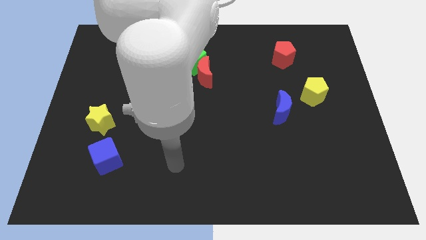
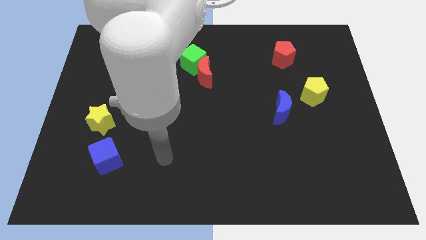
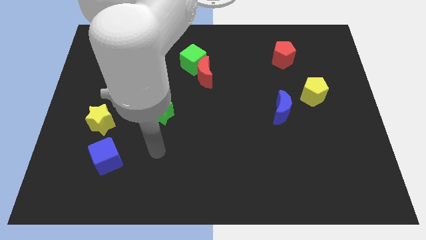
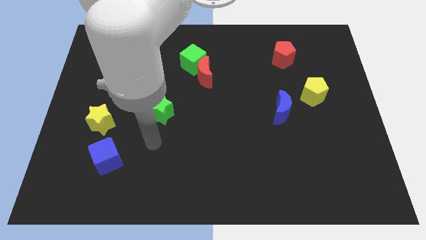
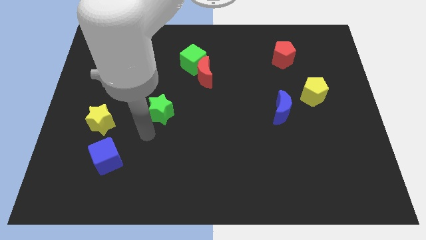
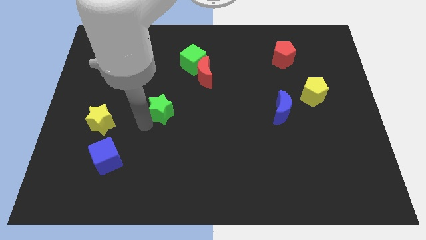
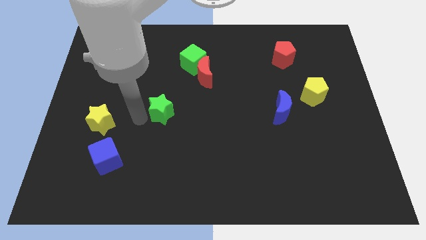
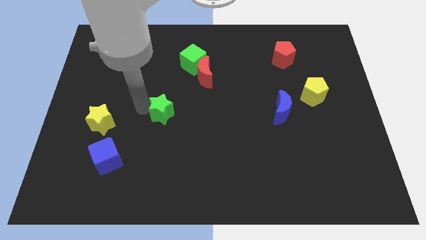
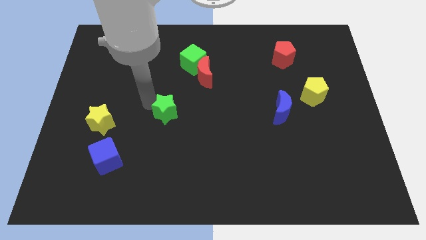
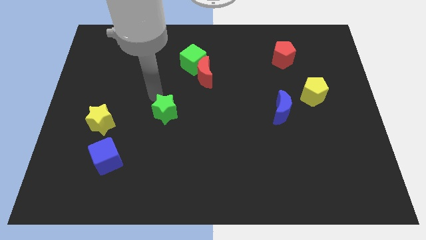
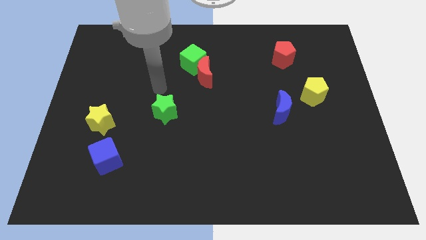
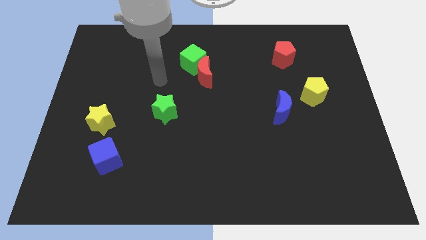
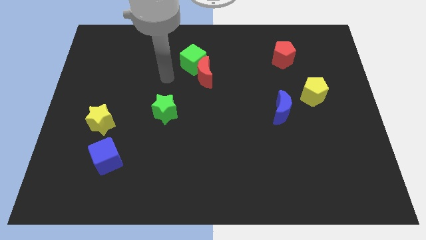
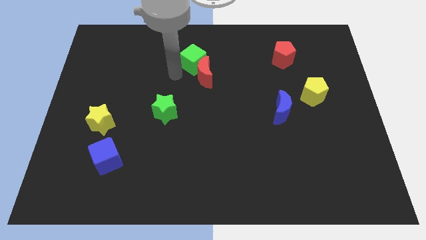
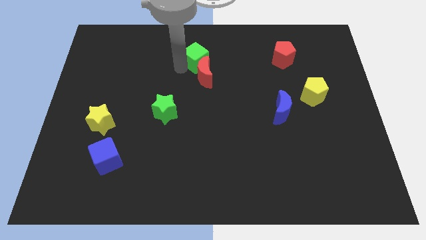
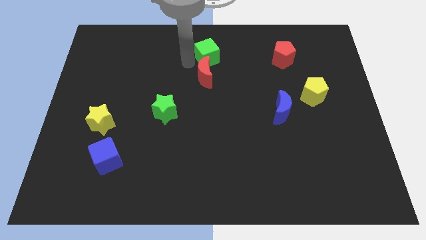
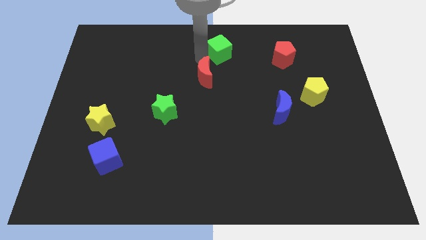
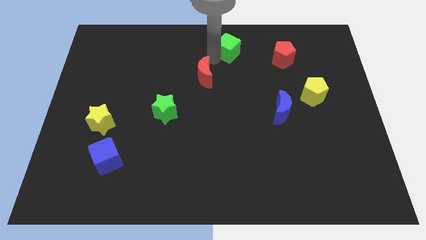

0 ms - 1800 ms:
pull the red moon apart from the green cube

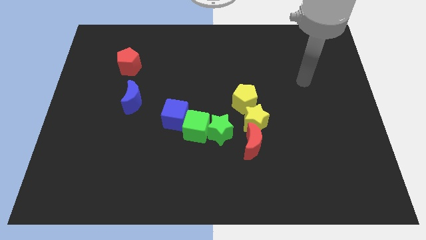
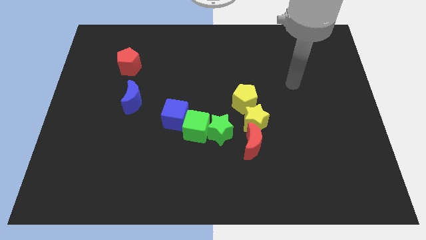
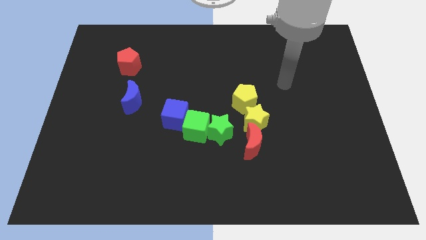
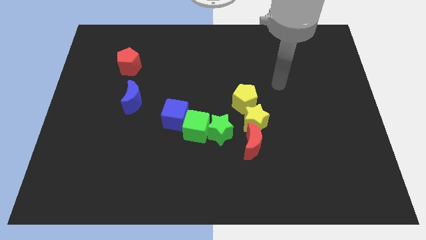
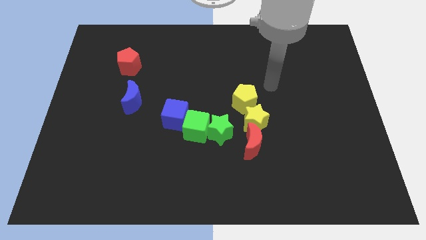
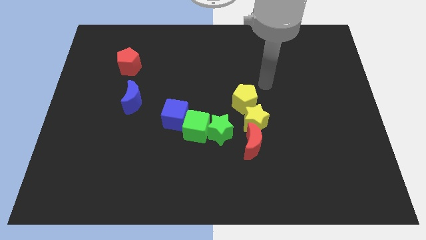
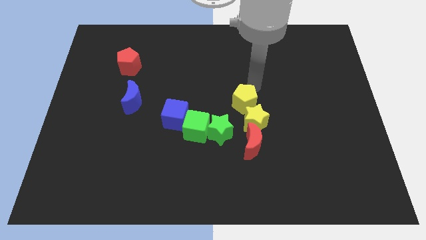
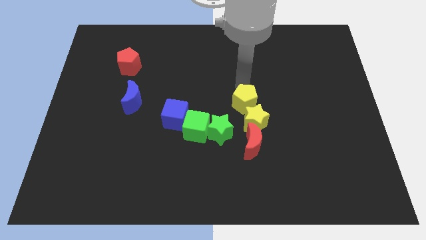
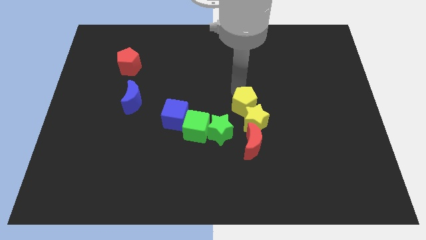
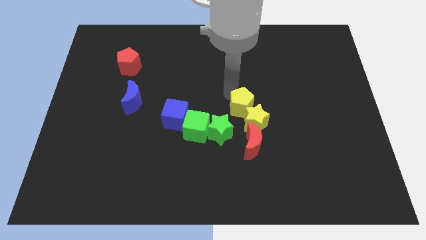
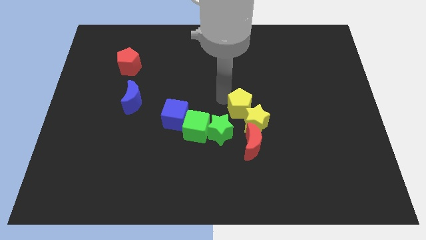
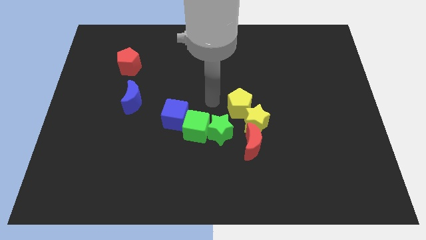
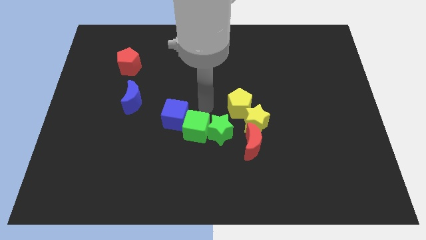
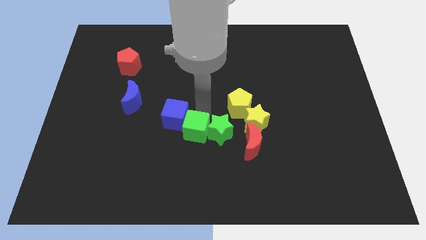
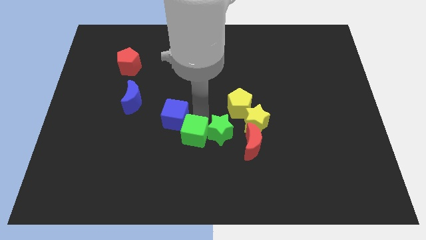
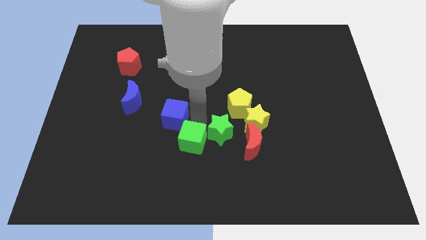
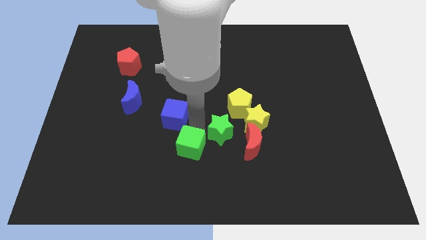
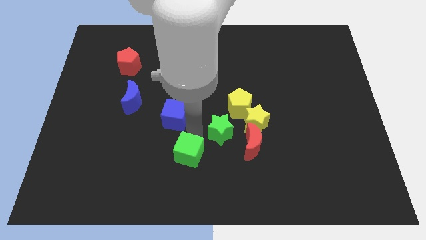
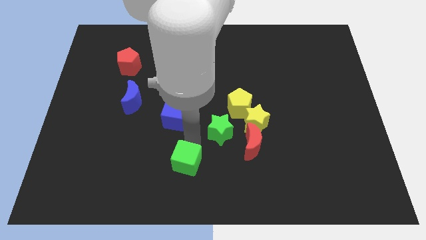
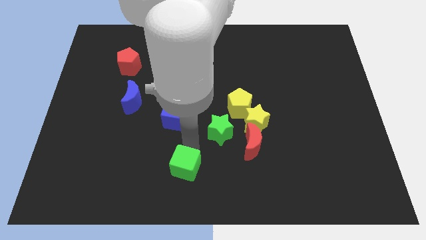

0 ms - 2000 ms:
separate the green cube from the green star and blue cube

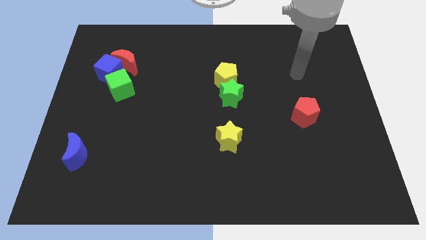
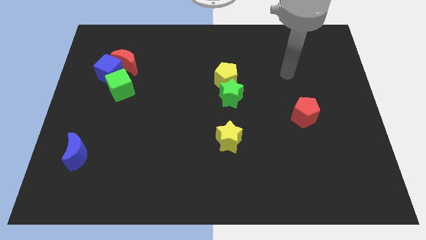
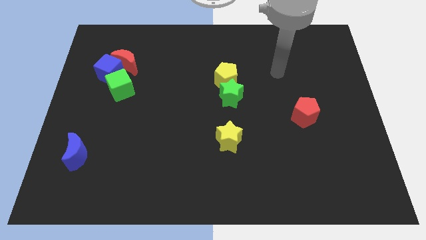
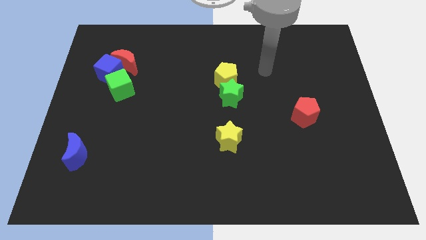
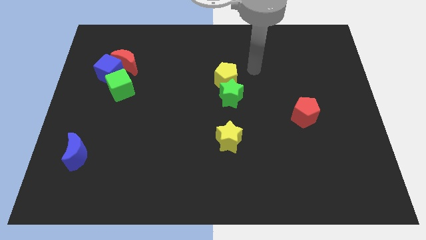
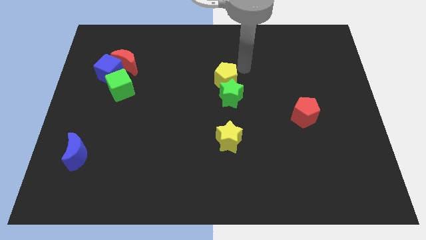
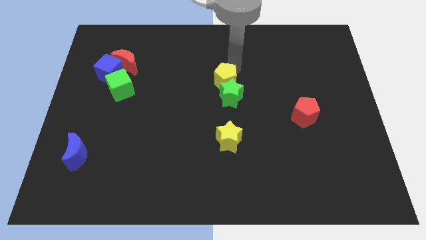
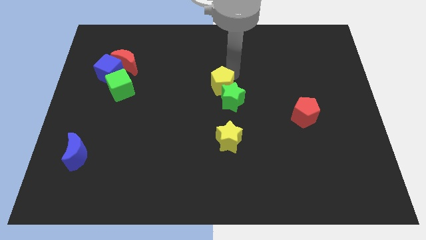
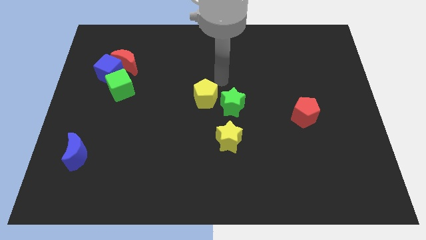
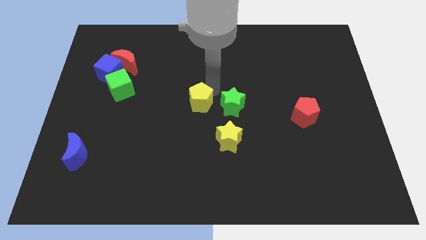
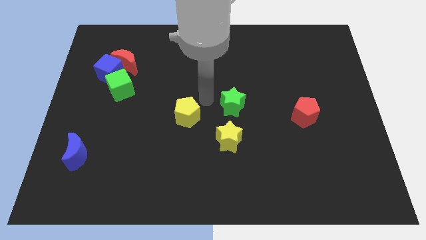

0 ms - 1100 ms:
pull the green star apart from the yellow pentagon

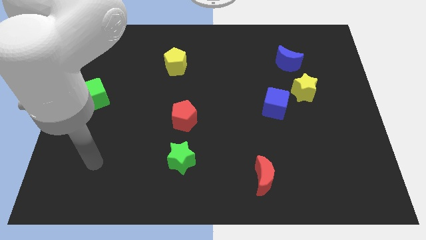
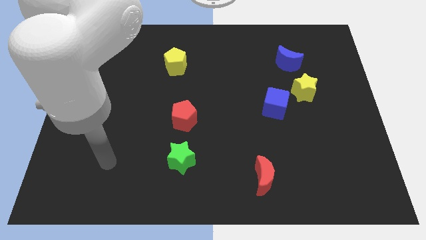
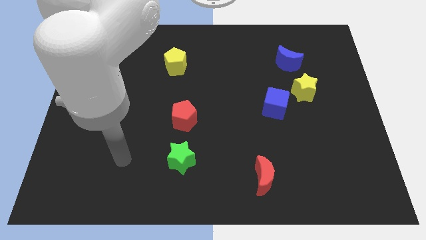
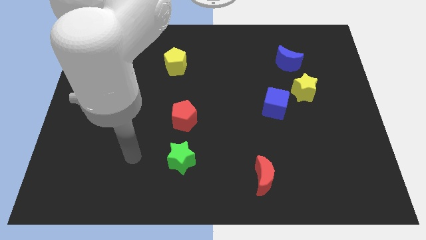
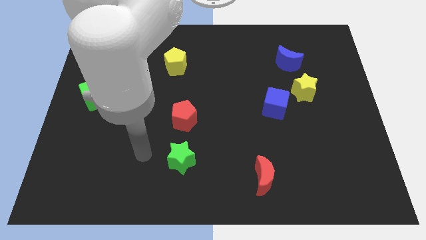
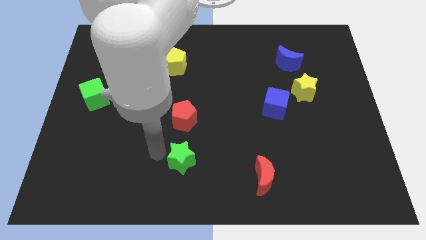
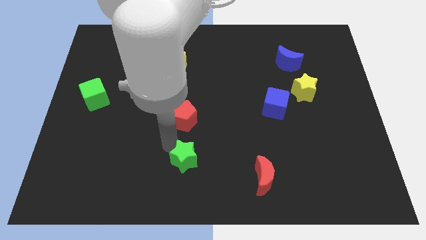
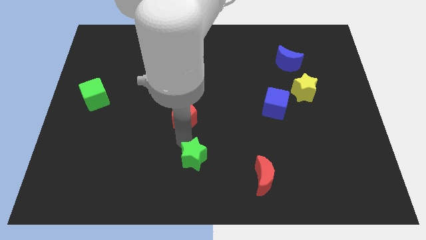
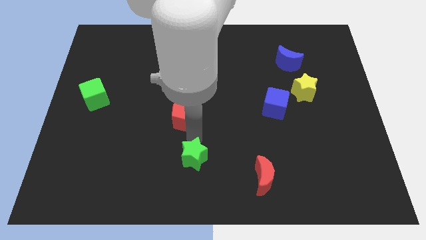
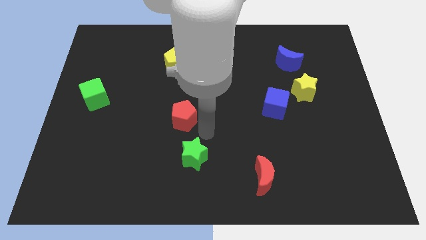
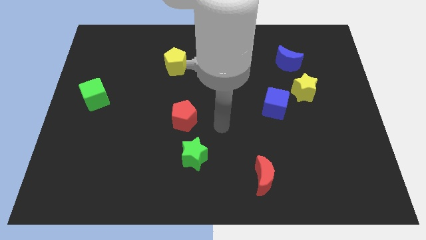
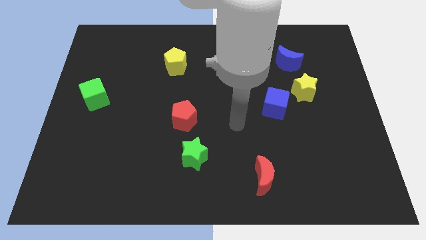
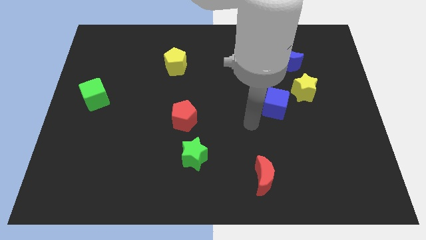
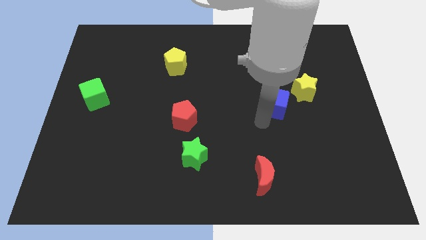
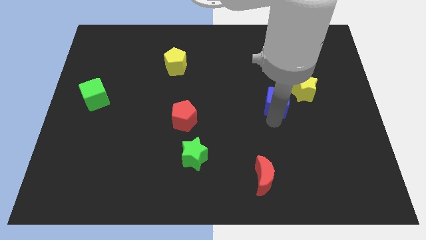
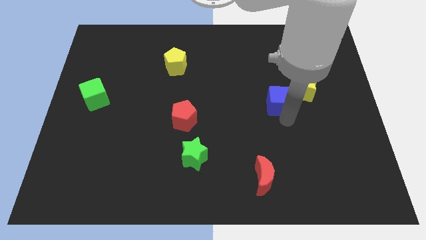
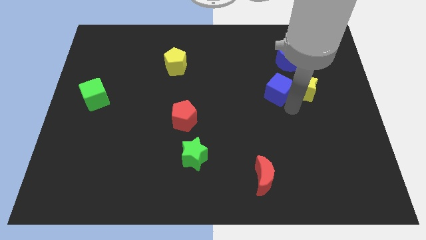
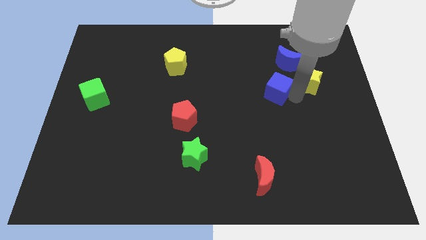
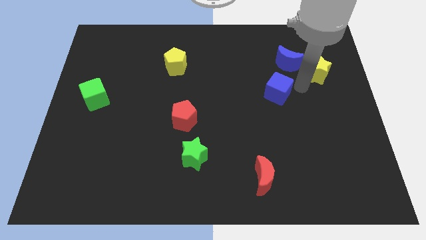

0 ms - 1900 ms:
move the blue cube away from the yellow star

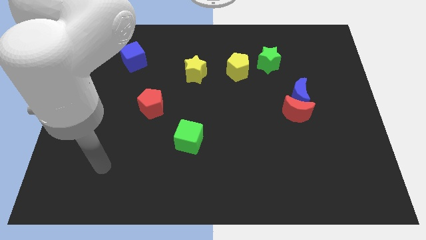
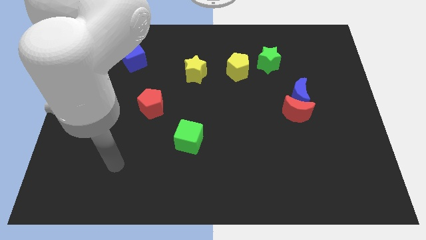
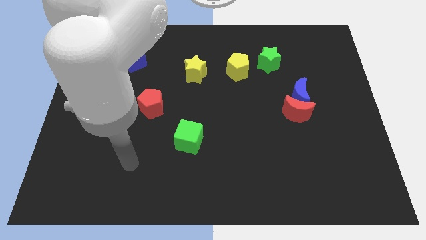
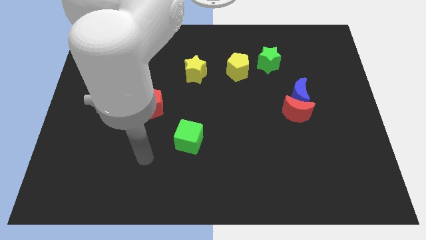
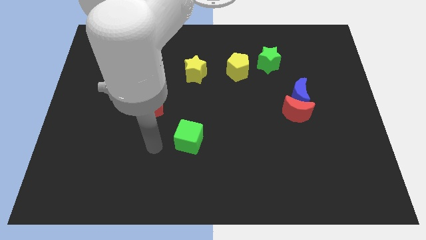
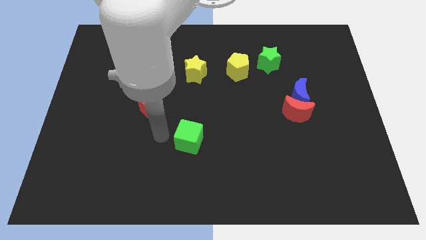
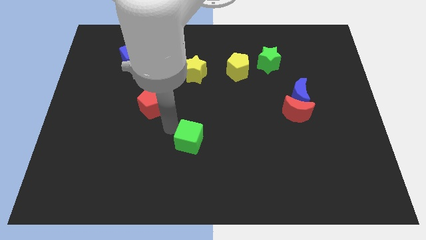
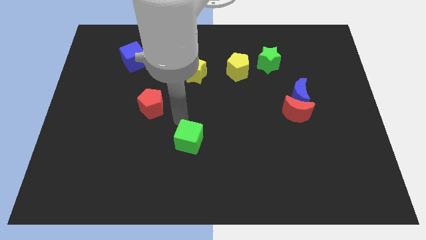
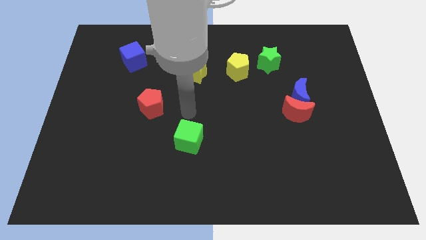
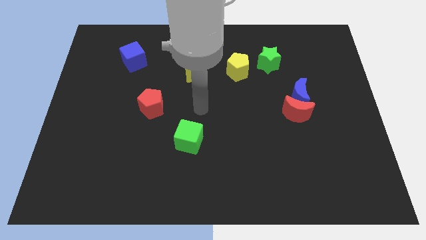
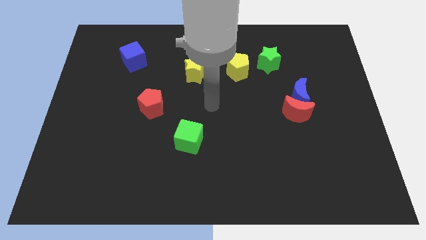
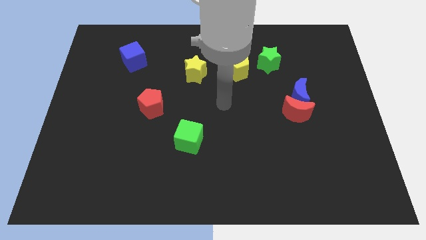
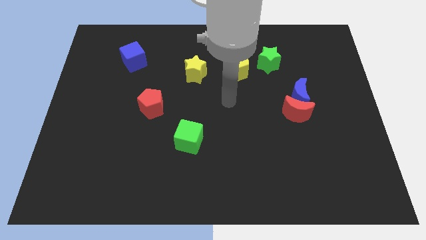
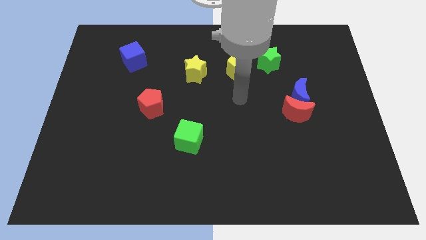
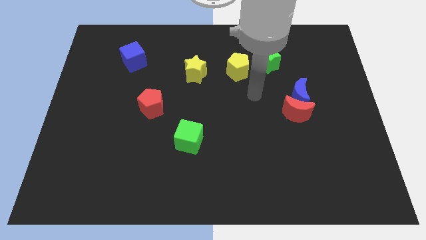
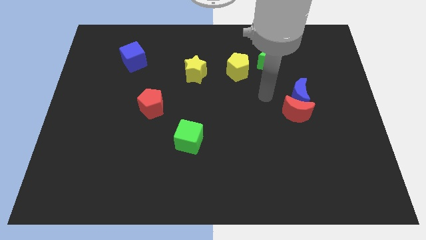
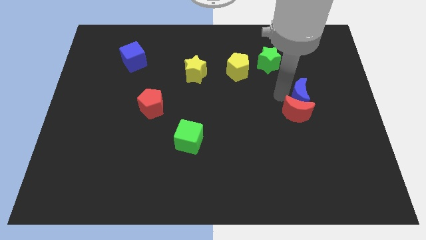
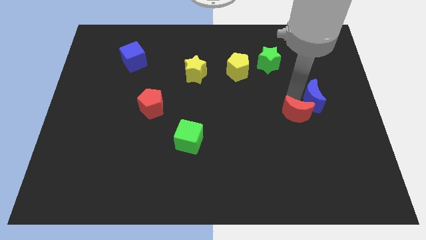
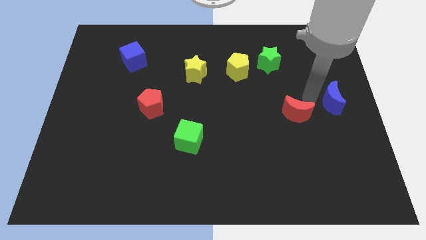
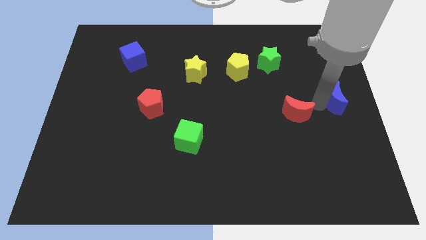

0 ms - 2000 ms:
separate the red moon from the blue moon

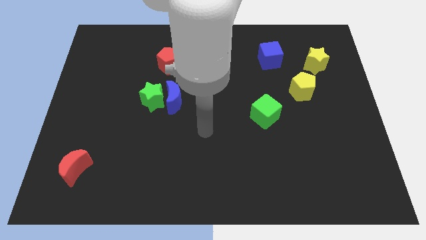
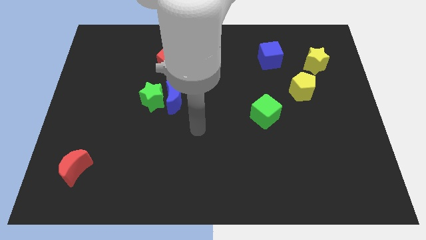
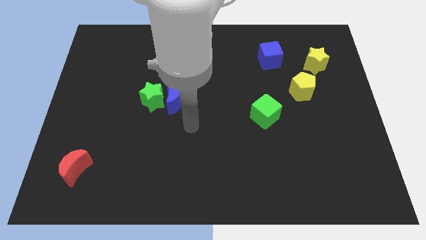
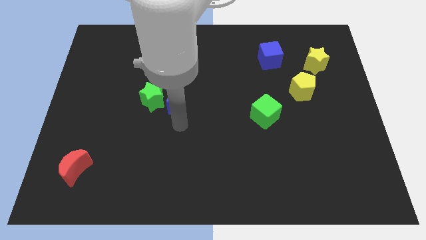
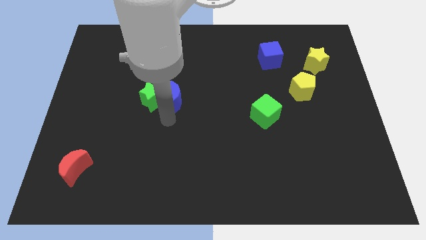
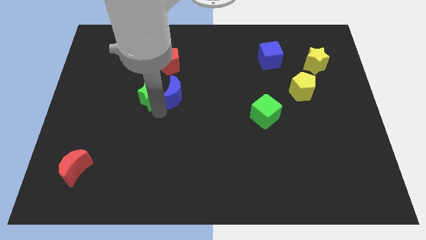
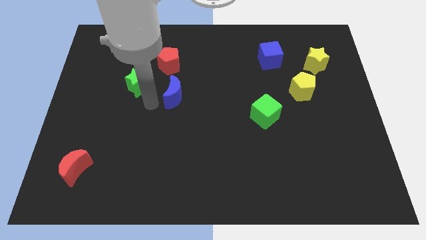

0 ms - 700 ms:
move the blue moon away from the green star
